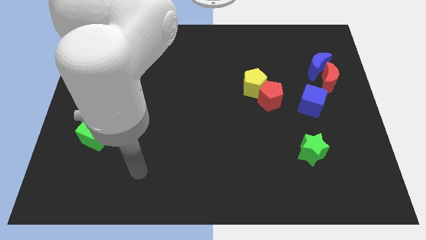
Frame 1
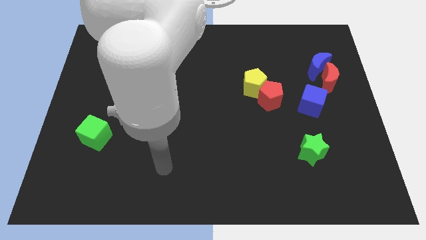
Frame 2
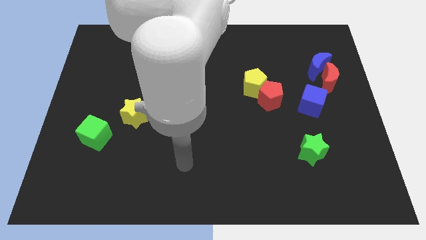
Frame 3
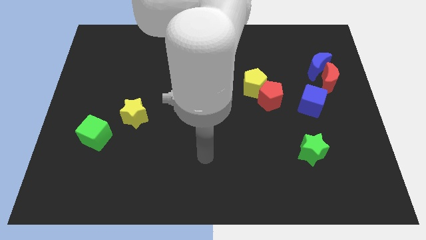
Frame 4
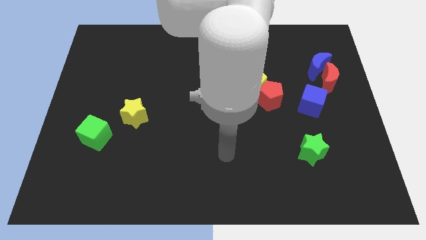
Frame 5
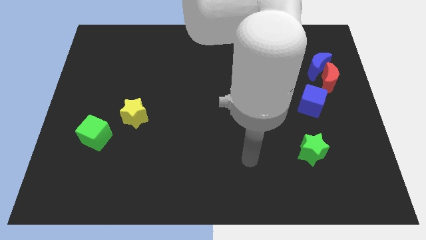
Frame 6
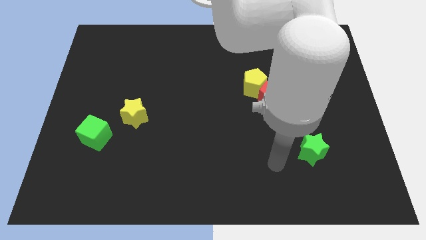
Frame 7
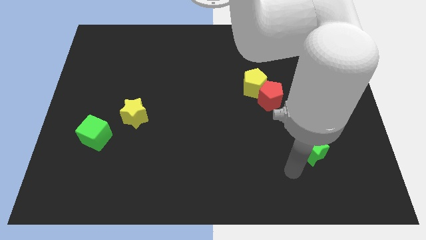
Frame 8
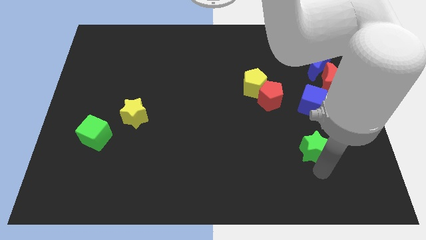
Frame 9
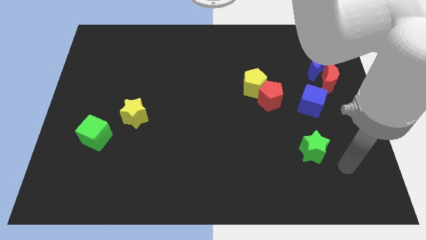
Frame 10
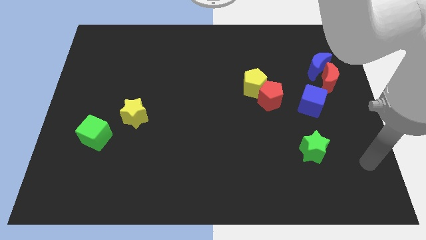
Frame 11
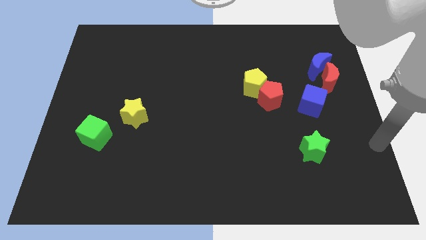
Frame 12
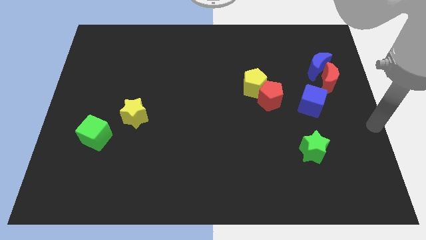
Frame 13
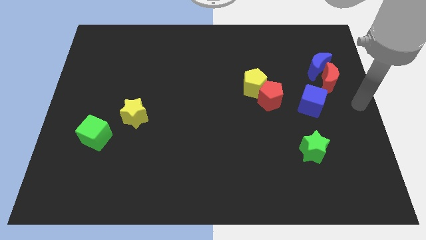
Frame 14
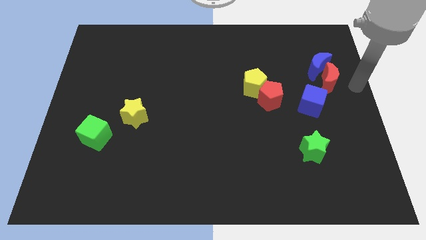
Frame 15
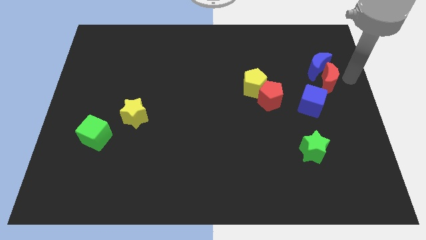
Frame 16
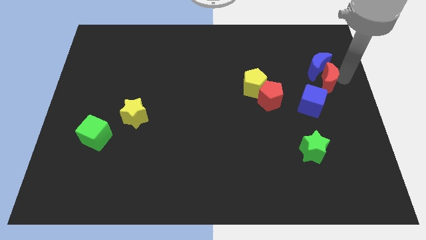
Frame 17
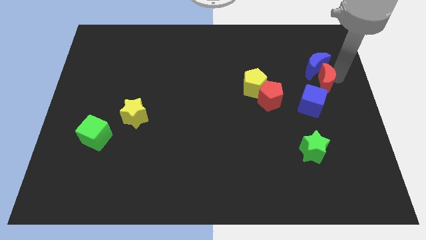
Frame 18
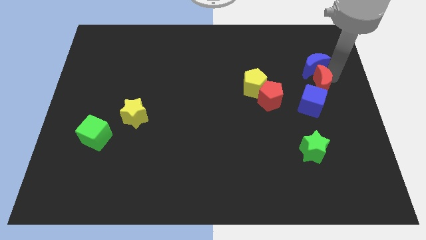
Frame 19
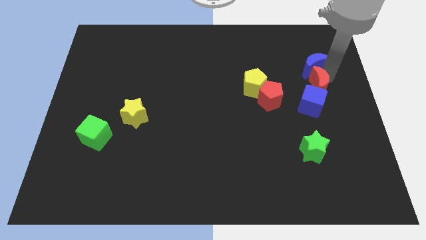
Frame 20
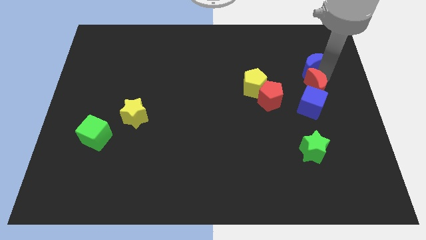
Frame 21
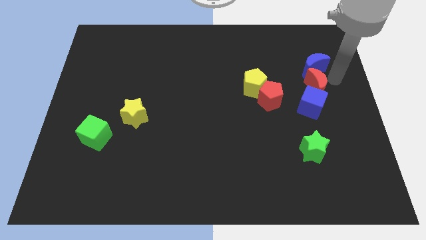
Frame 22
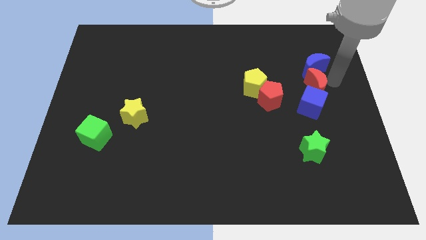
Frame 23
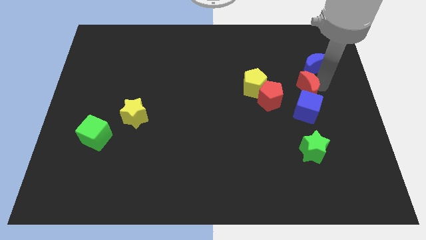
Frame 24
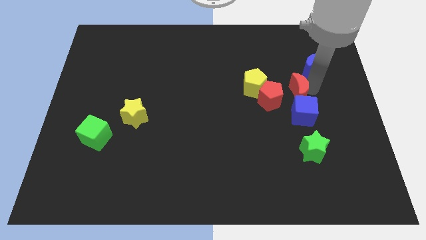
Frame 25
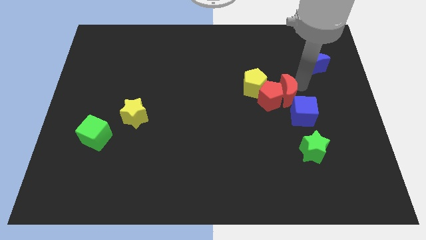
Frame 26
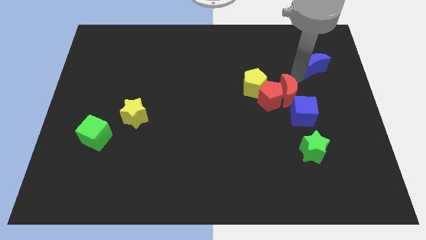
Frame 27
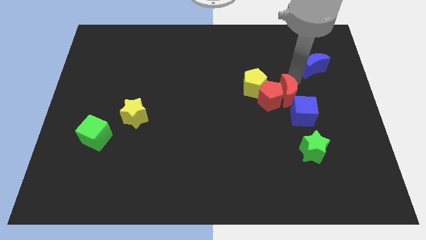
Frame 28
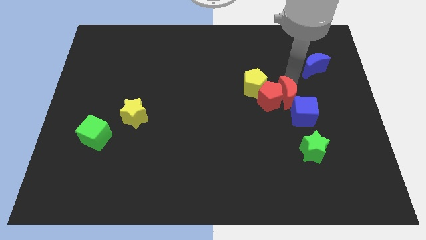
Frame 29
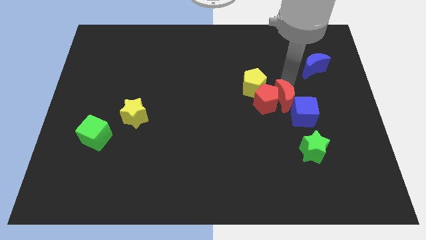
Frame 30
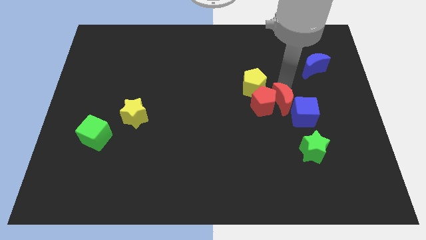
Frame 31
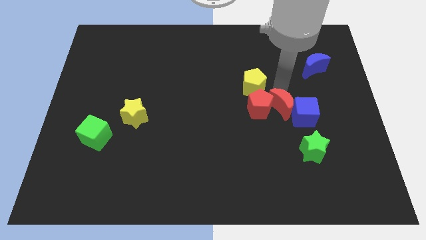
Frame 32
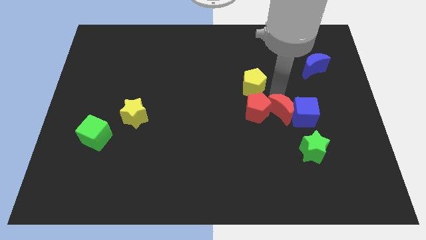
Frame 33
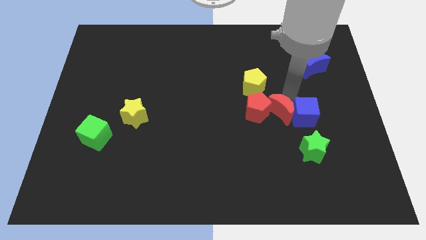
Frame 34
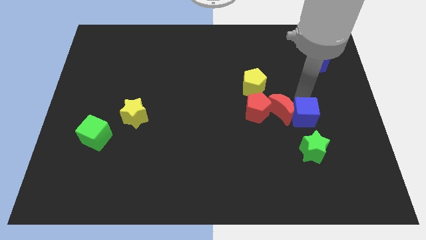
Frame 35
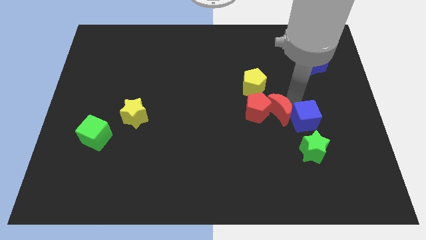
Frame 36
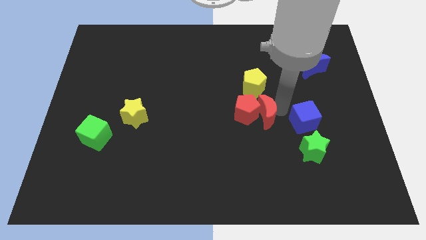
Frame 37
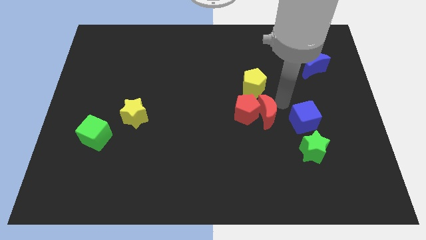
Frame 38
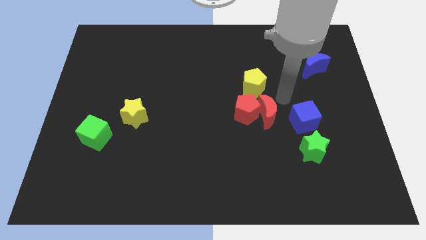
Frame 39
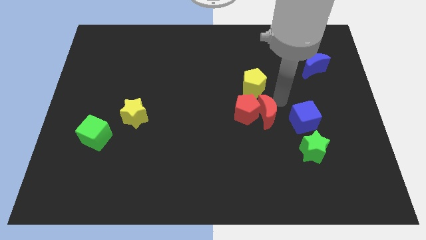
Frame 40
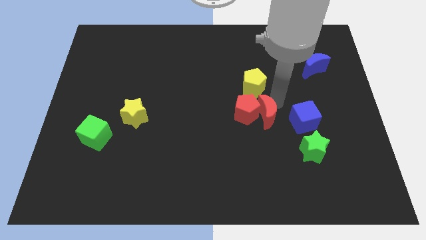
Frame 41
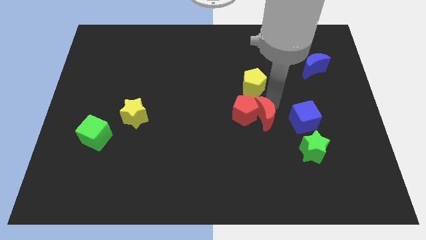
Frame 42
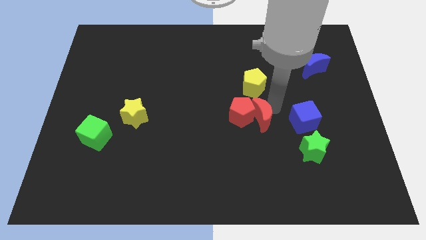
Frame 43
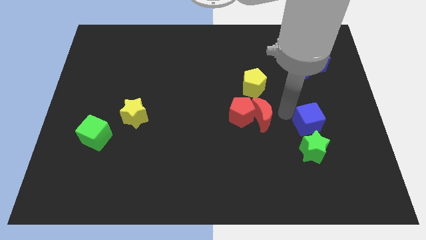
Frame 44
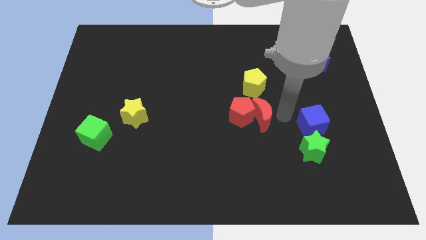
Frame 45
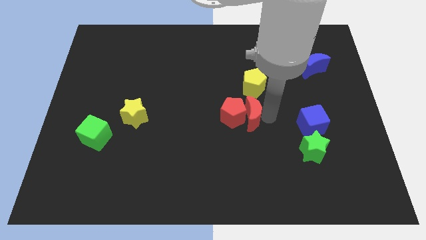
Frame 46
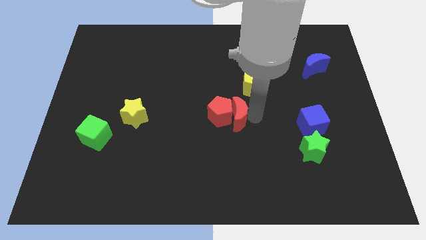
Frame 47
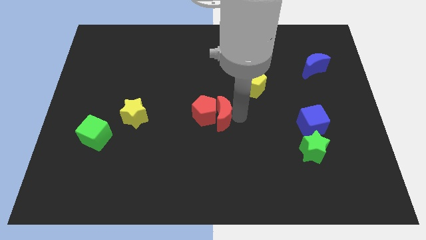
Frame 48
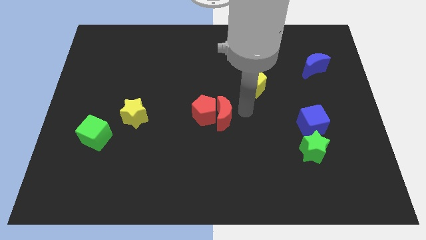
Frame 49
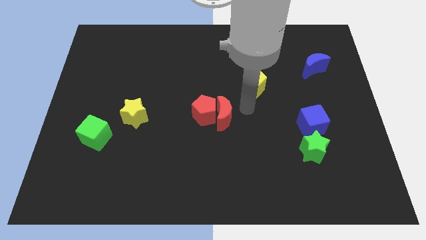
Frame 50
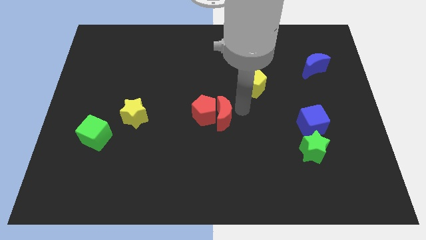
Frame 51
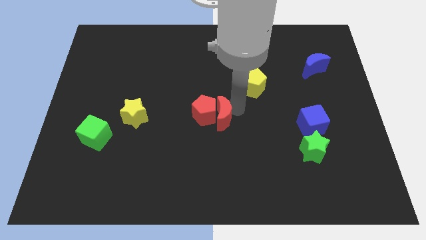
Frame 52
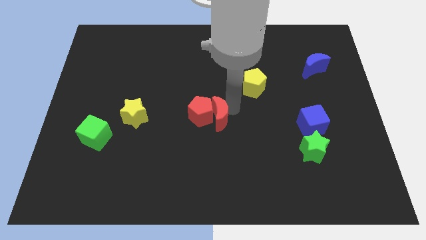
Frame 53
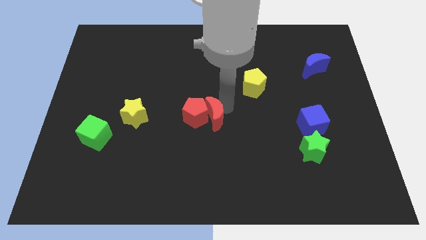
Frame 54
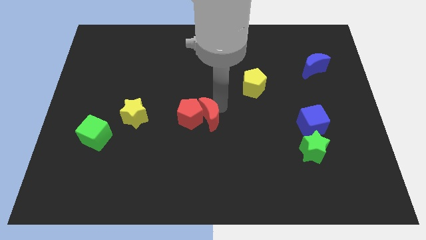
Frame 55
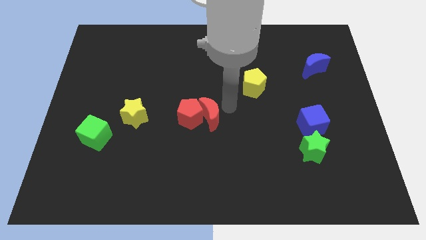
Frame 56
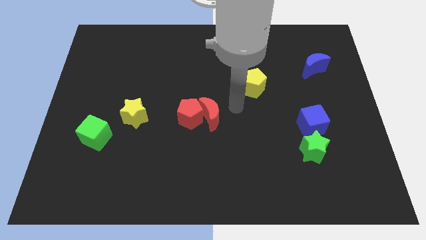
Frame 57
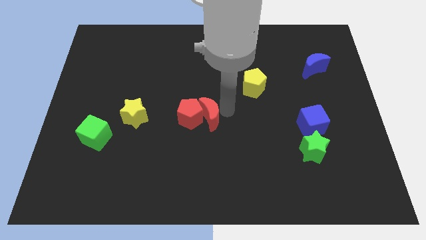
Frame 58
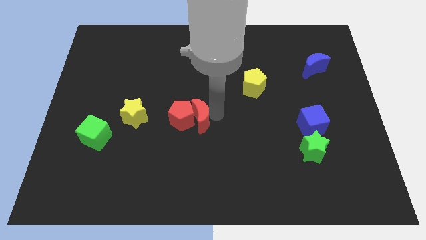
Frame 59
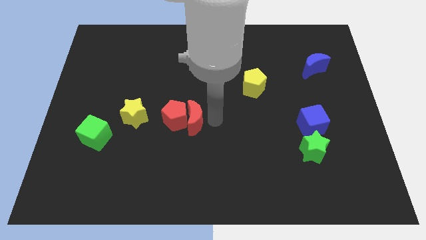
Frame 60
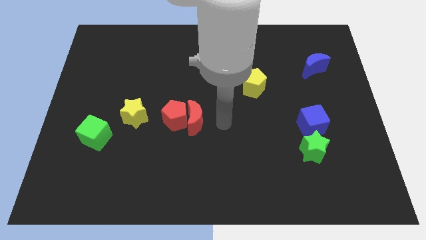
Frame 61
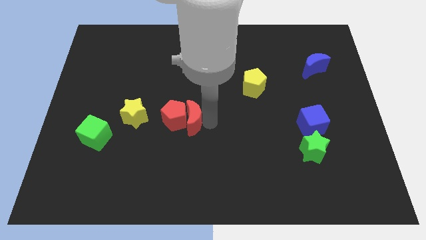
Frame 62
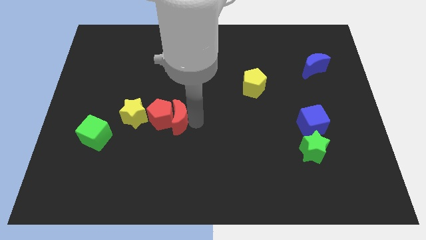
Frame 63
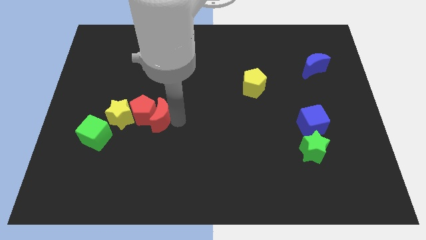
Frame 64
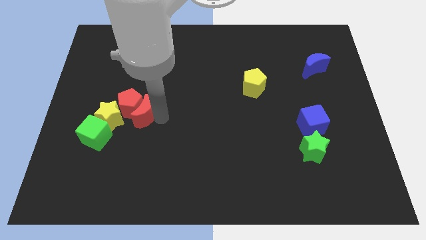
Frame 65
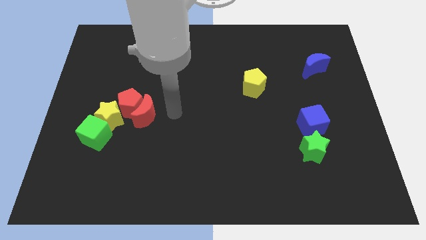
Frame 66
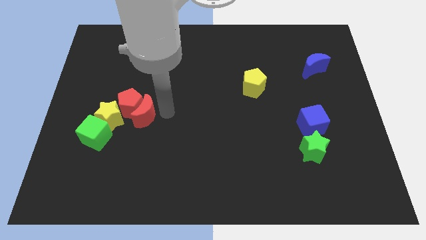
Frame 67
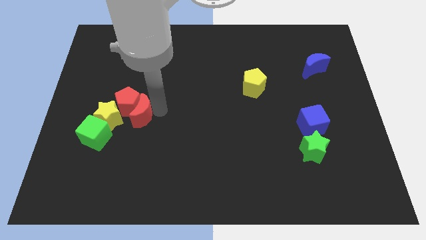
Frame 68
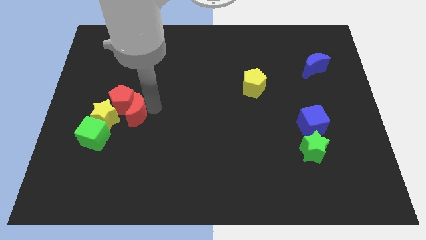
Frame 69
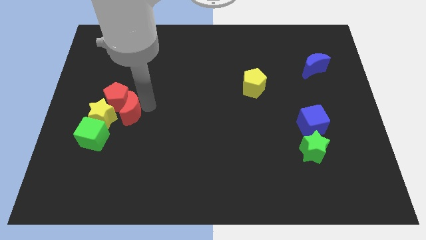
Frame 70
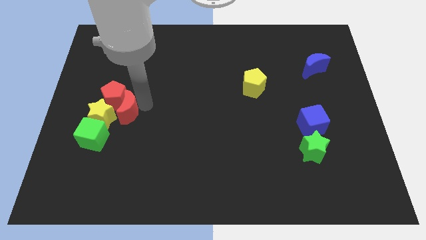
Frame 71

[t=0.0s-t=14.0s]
push the red moon next to the yellow star
